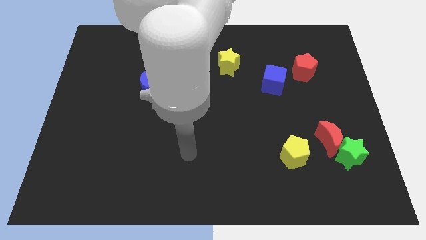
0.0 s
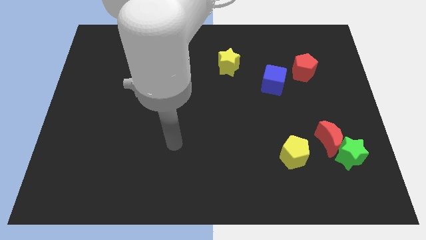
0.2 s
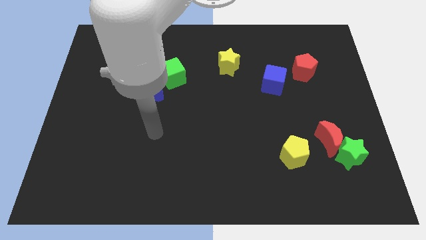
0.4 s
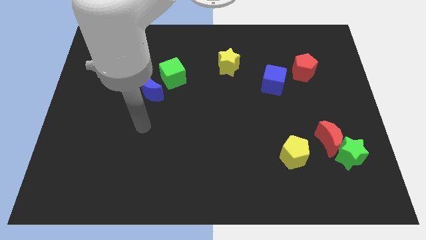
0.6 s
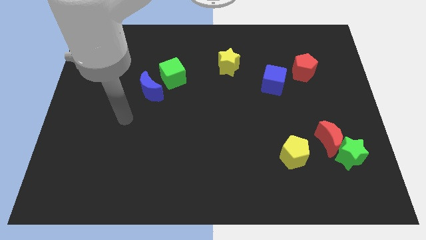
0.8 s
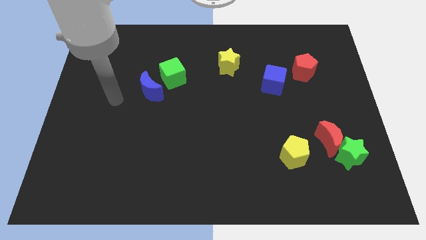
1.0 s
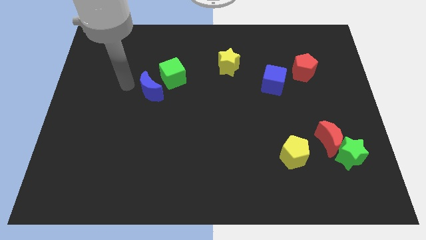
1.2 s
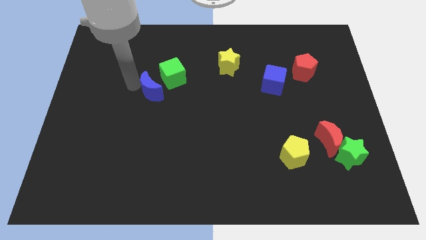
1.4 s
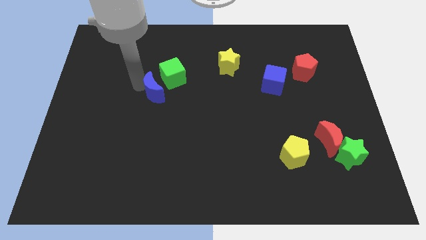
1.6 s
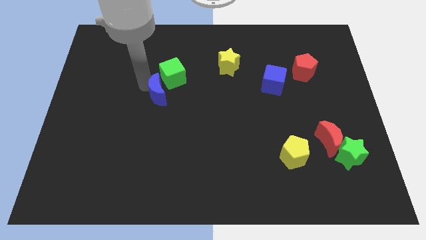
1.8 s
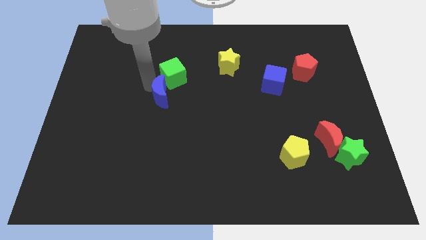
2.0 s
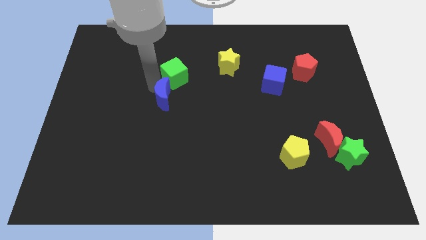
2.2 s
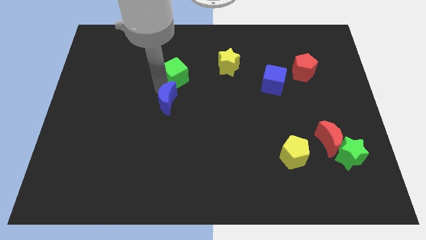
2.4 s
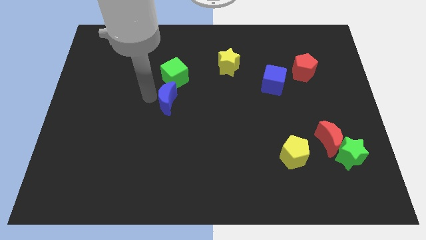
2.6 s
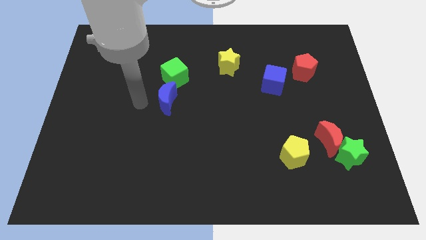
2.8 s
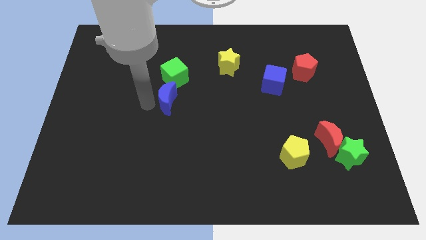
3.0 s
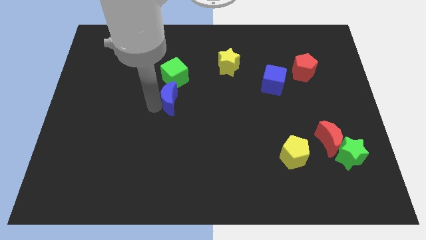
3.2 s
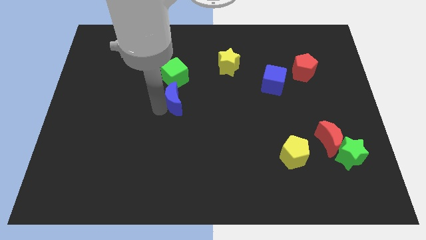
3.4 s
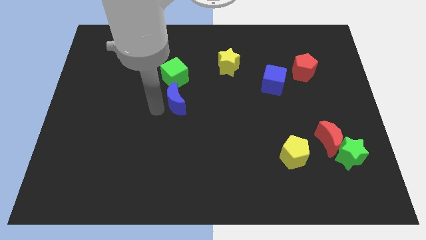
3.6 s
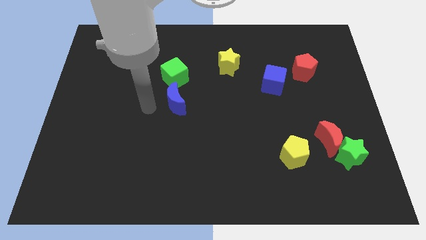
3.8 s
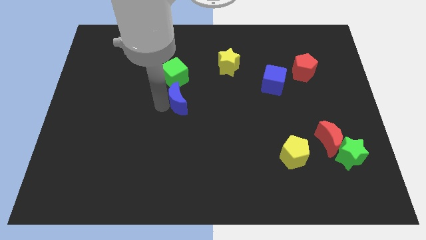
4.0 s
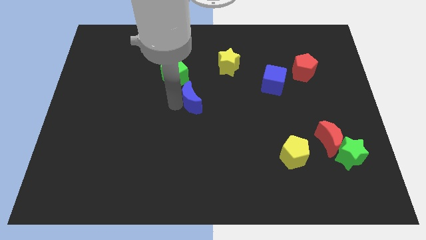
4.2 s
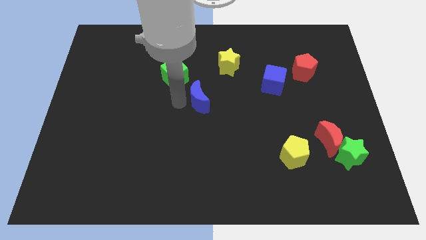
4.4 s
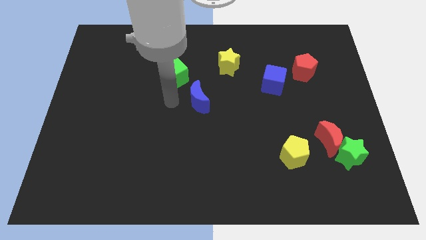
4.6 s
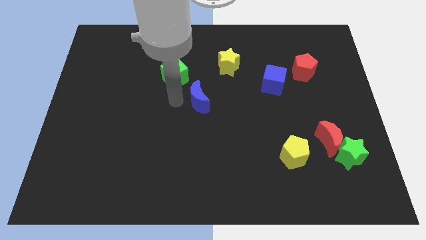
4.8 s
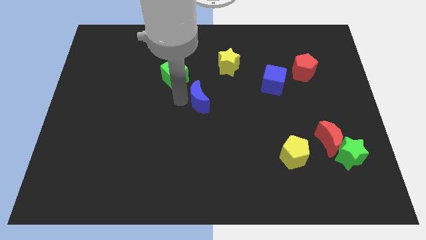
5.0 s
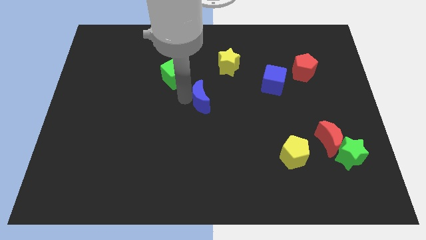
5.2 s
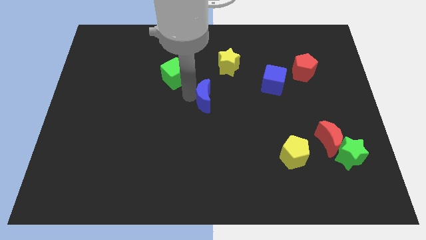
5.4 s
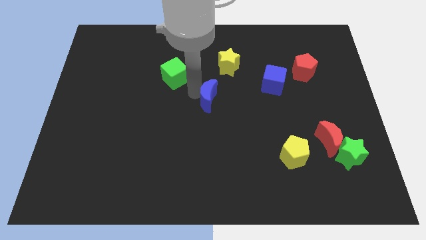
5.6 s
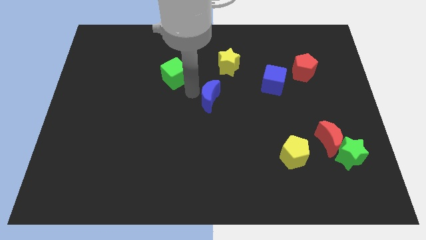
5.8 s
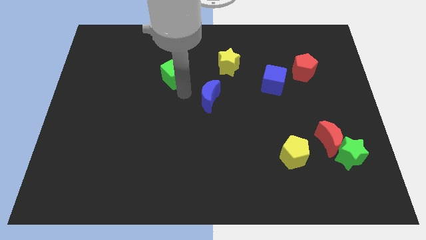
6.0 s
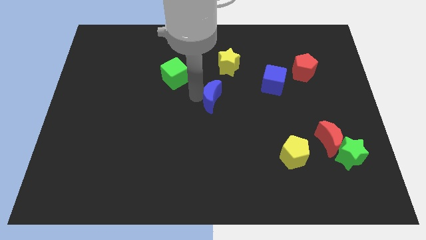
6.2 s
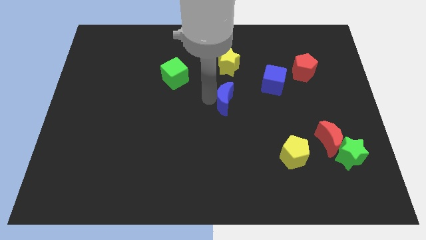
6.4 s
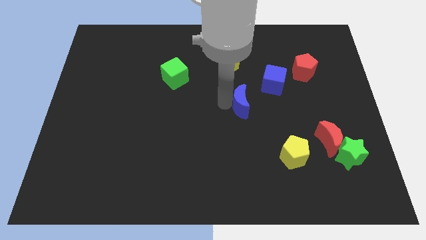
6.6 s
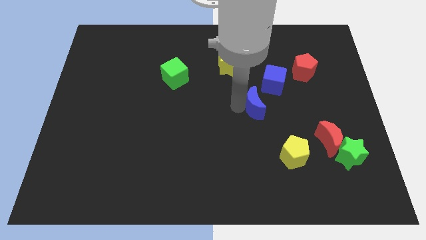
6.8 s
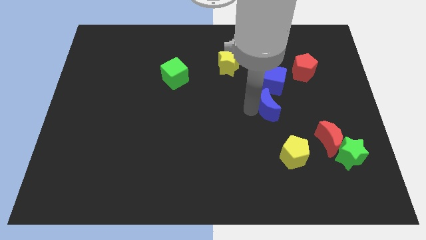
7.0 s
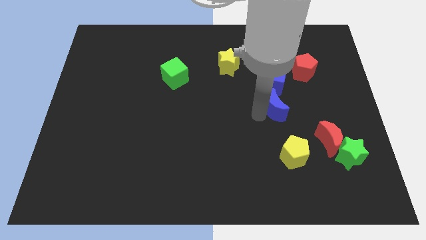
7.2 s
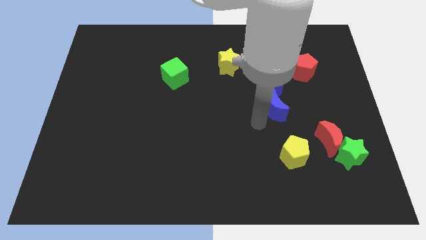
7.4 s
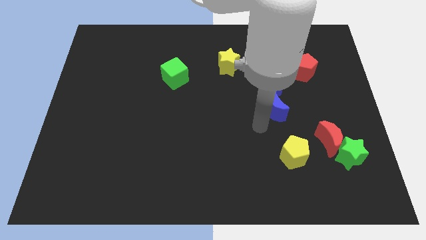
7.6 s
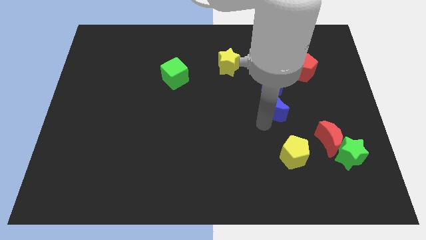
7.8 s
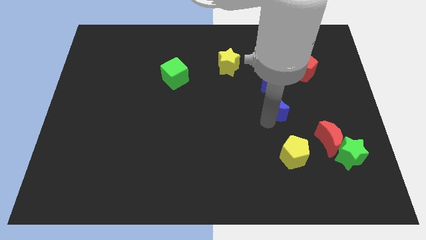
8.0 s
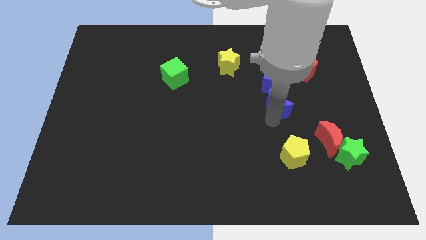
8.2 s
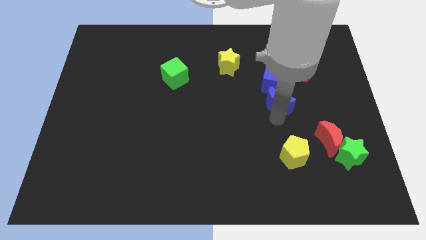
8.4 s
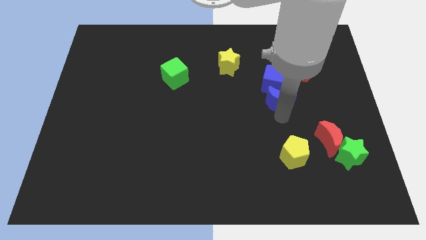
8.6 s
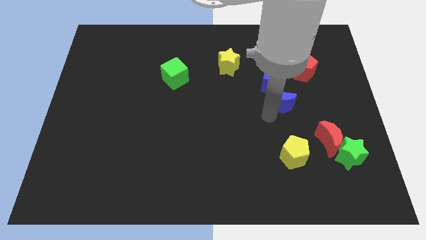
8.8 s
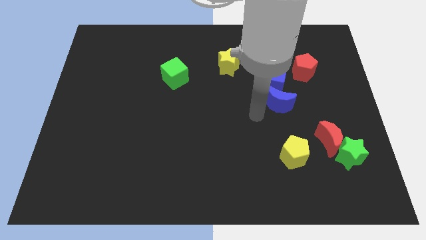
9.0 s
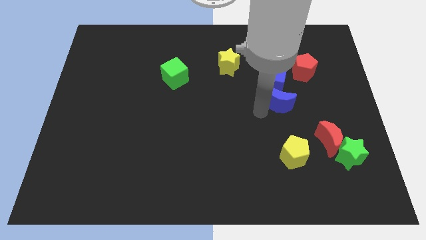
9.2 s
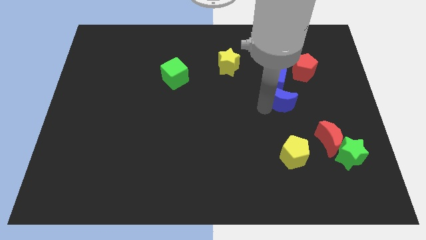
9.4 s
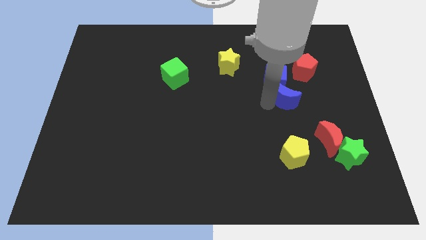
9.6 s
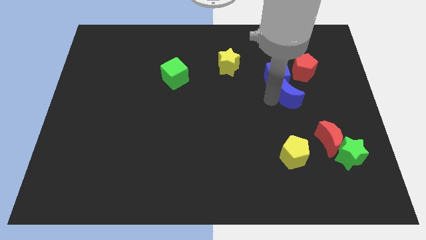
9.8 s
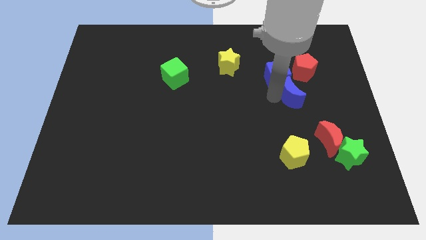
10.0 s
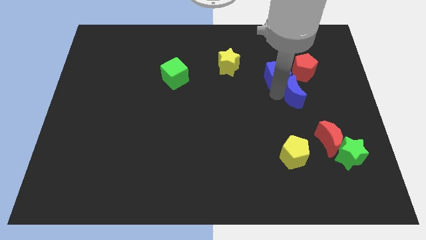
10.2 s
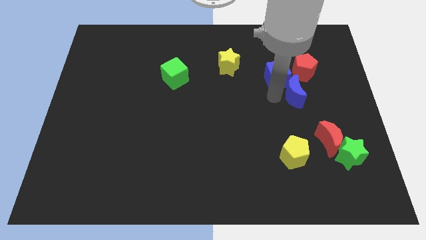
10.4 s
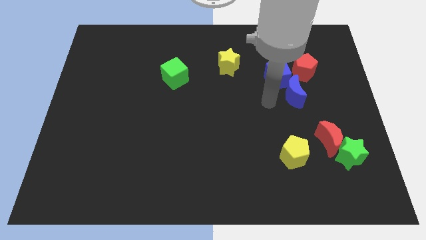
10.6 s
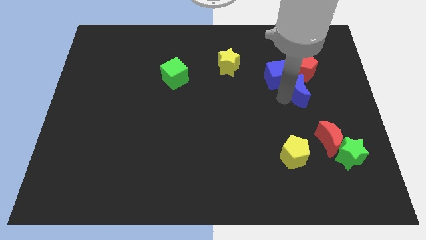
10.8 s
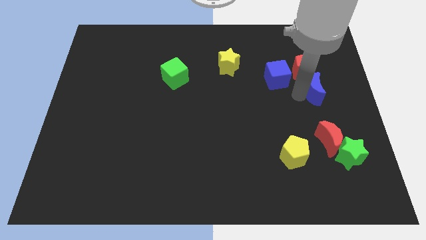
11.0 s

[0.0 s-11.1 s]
slide the blue moon to the bottom right of the red pentagon

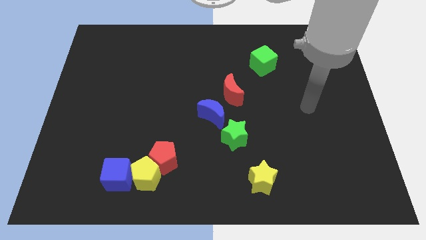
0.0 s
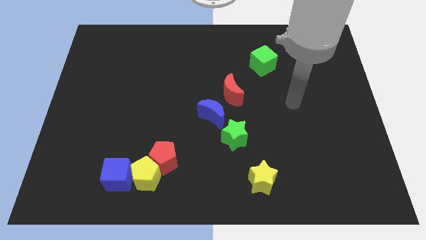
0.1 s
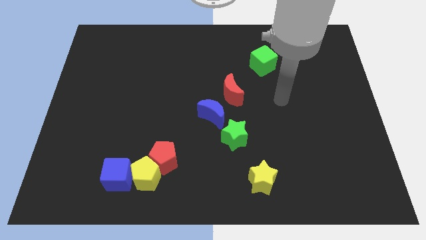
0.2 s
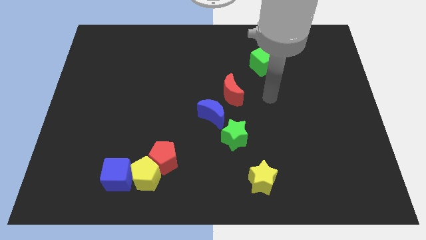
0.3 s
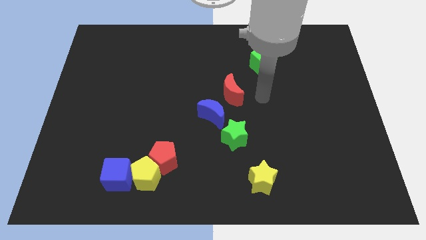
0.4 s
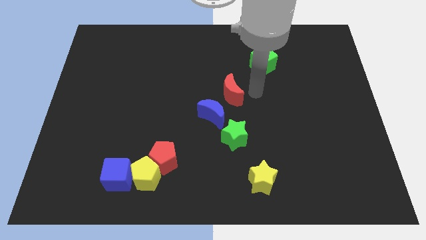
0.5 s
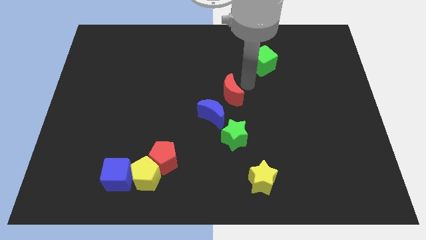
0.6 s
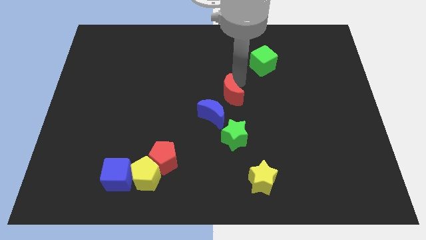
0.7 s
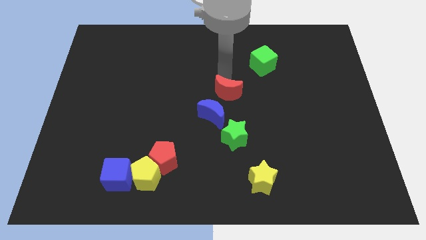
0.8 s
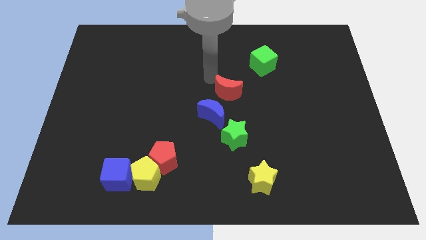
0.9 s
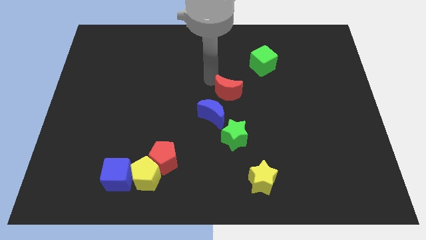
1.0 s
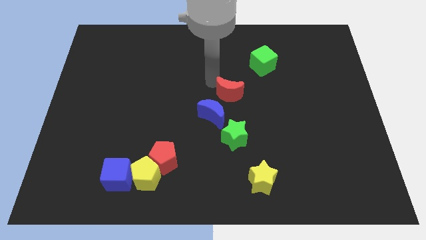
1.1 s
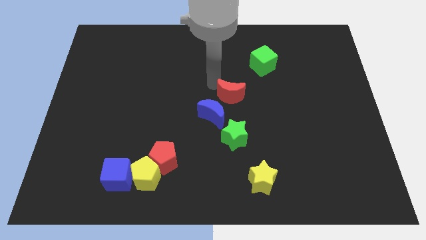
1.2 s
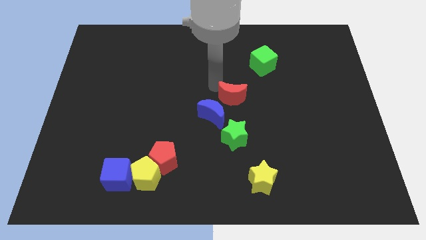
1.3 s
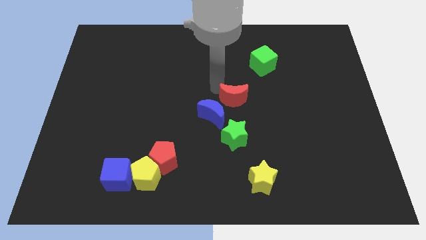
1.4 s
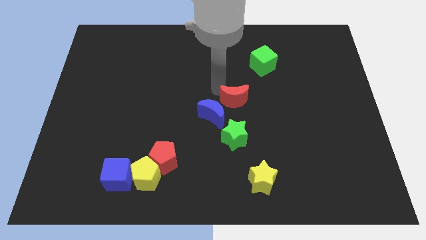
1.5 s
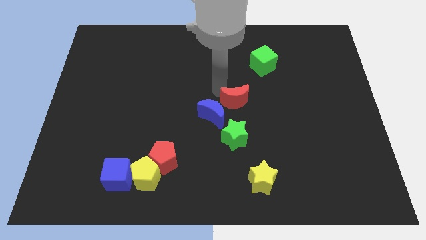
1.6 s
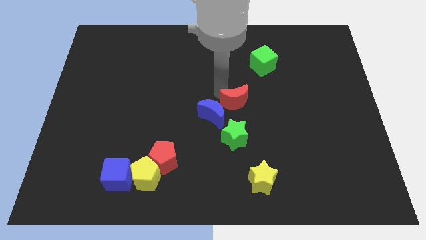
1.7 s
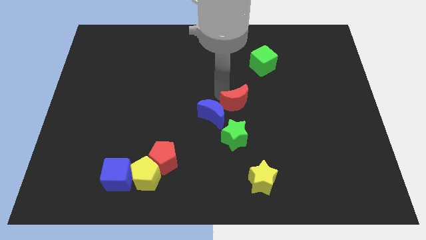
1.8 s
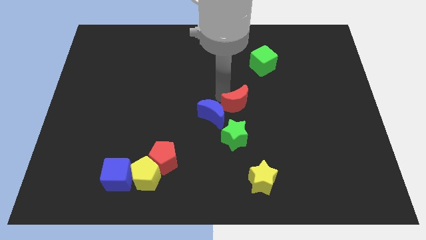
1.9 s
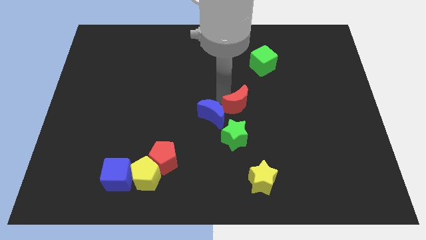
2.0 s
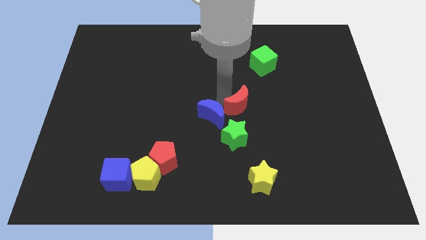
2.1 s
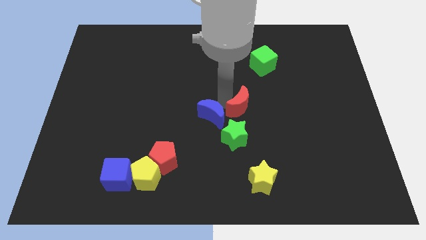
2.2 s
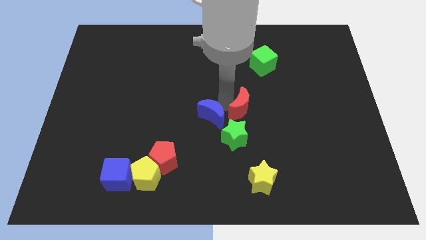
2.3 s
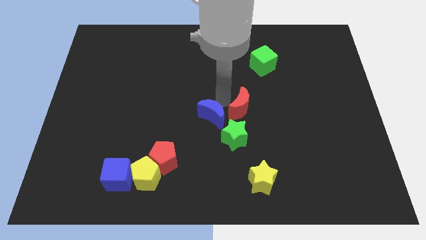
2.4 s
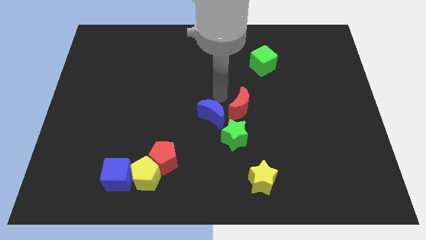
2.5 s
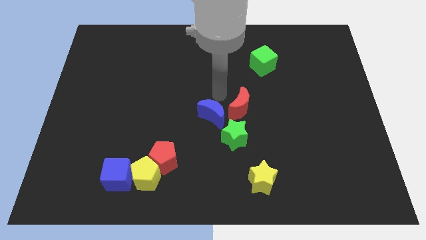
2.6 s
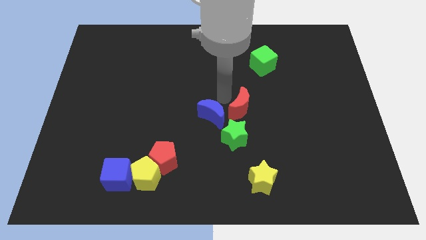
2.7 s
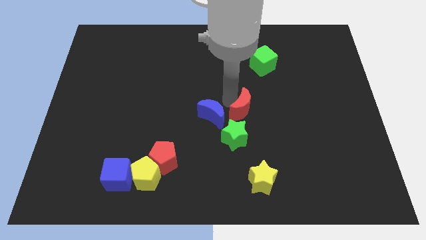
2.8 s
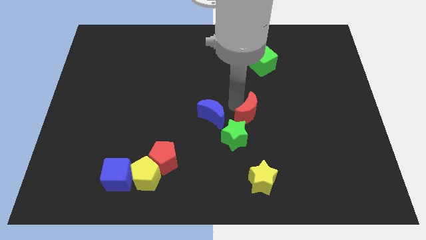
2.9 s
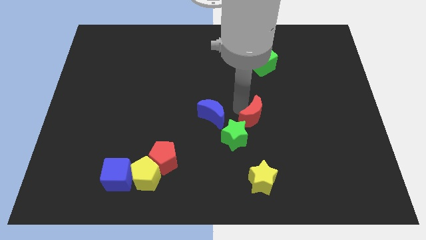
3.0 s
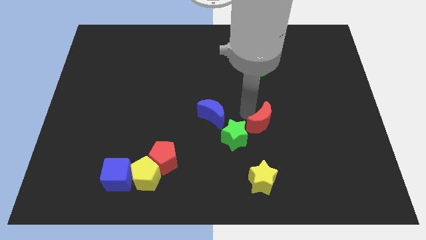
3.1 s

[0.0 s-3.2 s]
push the red moon just right of the green star
